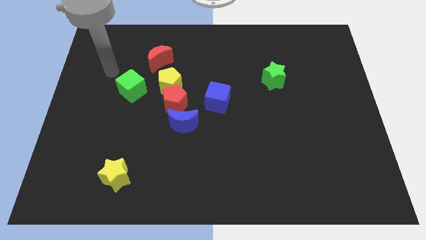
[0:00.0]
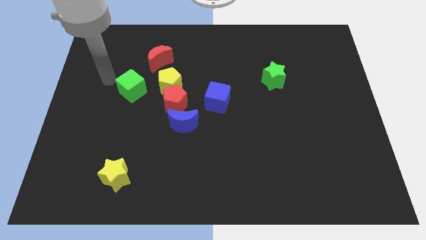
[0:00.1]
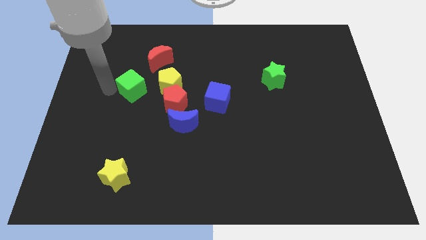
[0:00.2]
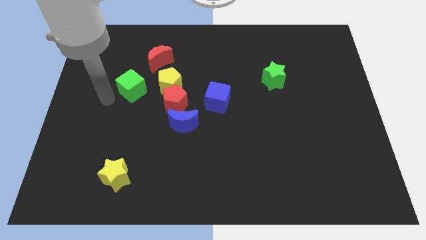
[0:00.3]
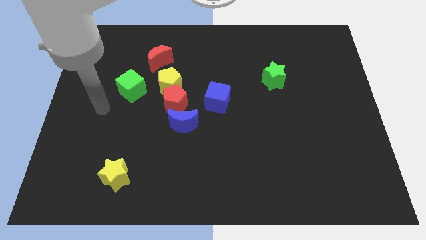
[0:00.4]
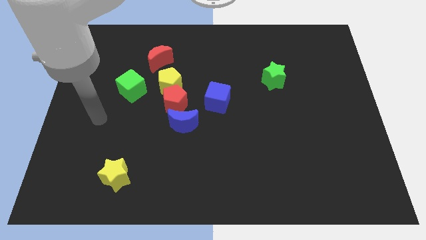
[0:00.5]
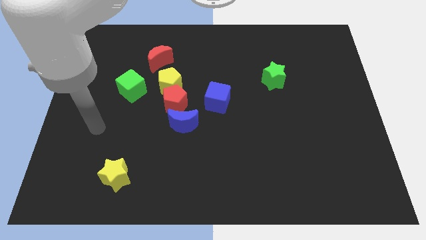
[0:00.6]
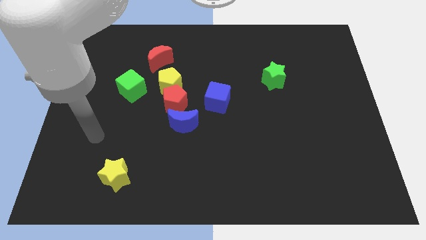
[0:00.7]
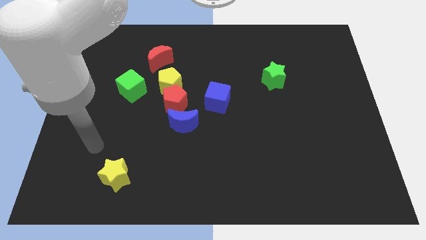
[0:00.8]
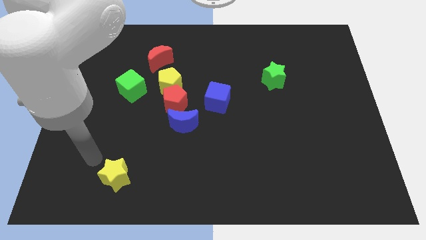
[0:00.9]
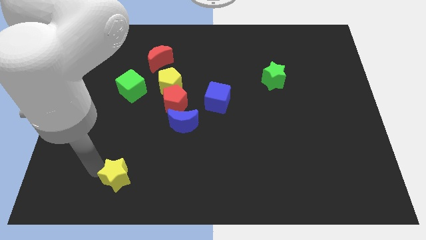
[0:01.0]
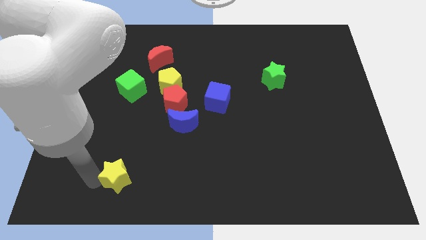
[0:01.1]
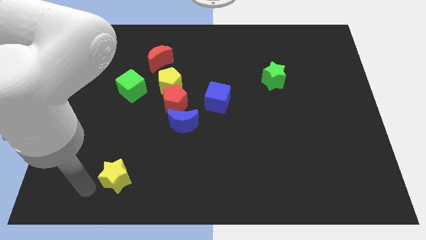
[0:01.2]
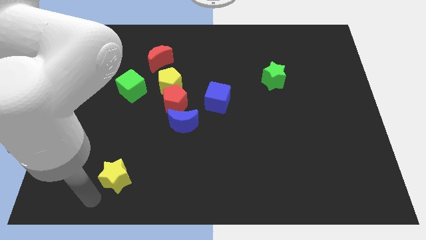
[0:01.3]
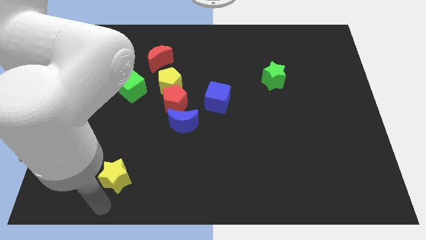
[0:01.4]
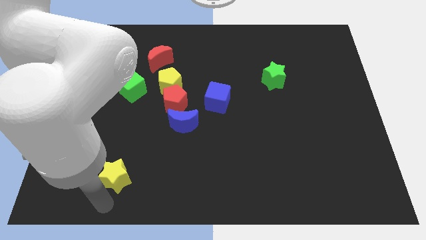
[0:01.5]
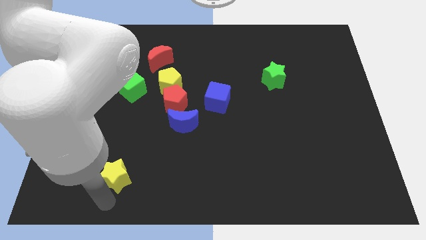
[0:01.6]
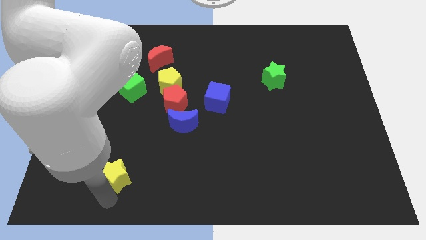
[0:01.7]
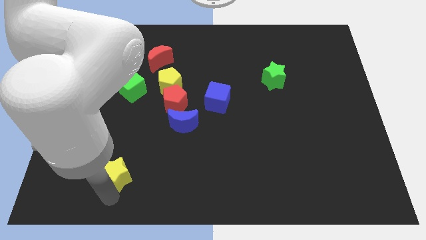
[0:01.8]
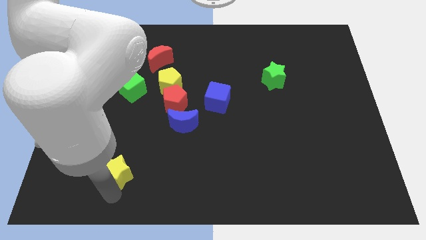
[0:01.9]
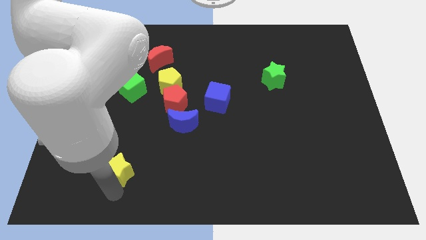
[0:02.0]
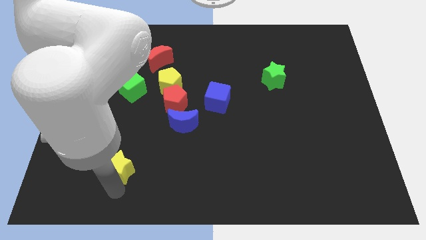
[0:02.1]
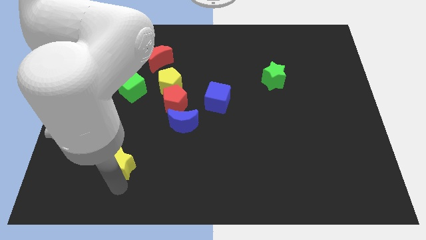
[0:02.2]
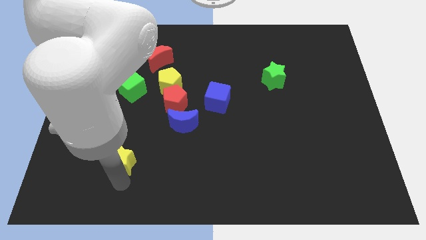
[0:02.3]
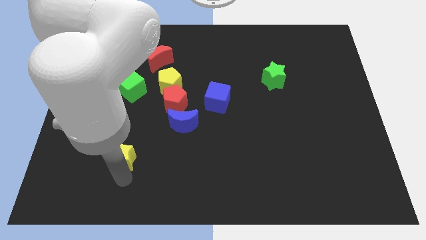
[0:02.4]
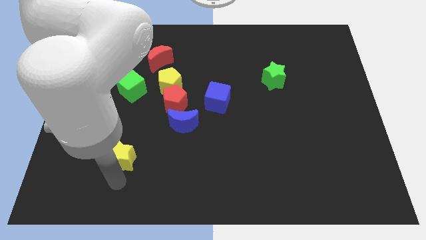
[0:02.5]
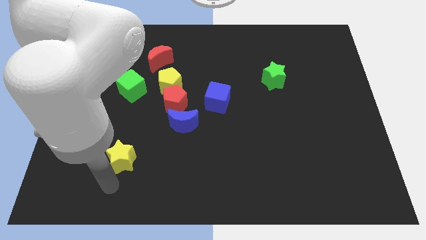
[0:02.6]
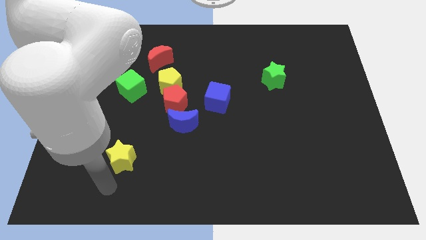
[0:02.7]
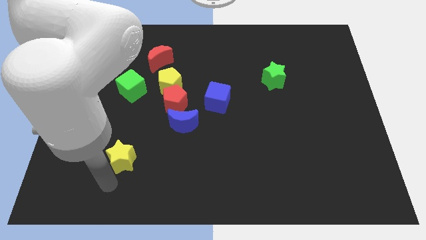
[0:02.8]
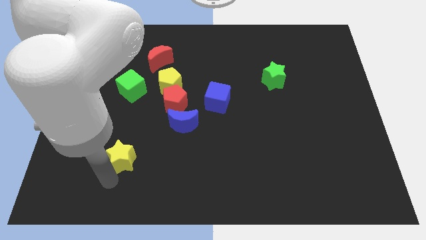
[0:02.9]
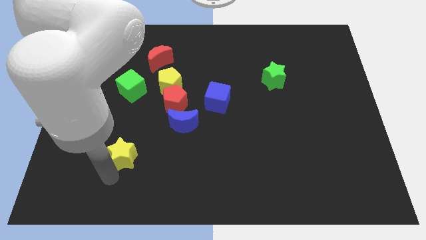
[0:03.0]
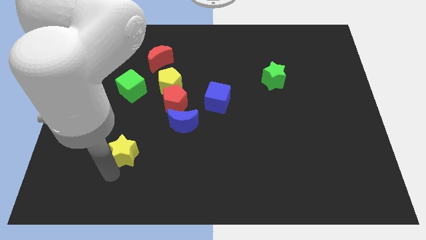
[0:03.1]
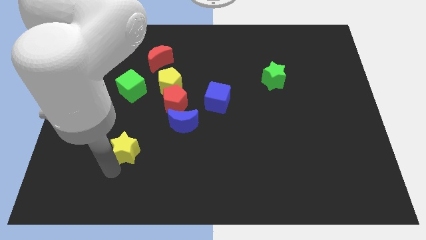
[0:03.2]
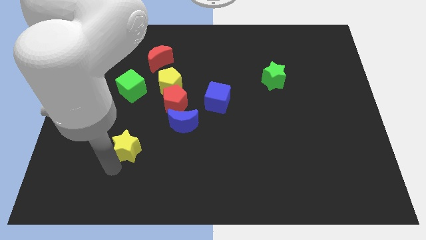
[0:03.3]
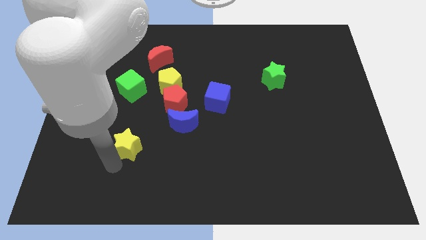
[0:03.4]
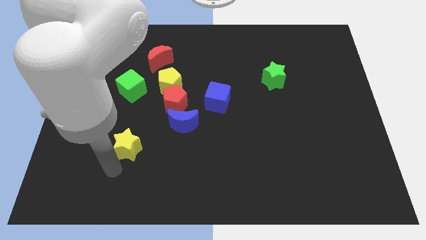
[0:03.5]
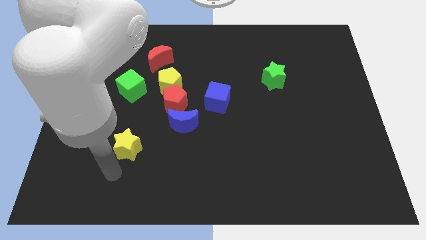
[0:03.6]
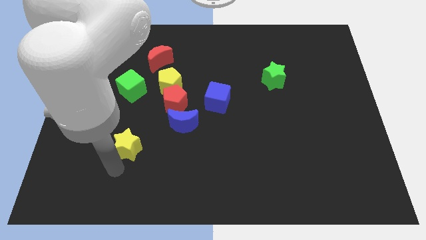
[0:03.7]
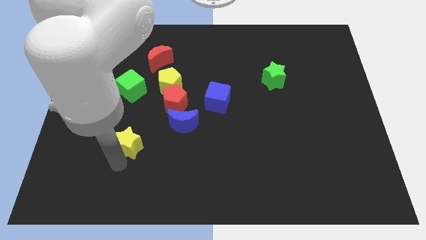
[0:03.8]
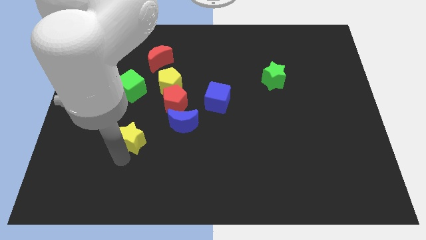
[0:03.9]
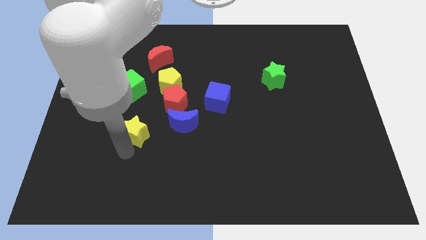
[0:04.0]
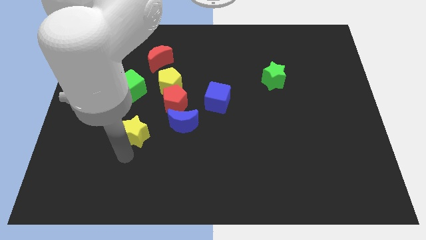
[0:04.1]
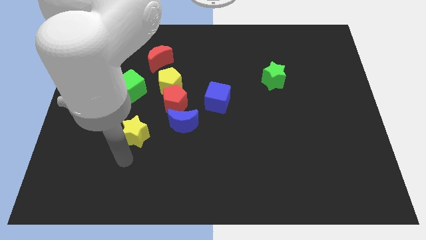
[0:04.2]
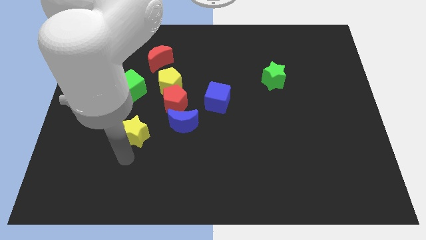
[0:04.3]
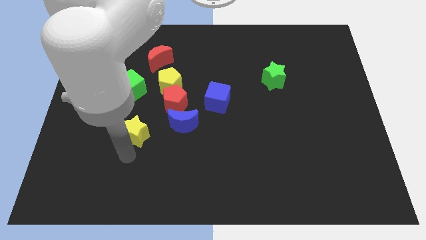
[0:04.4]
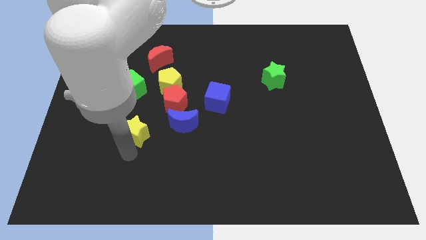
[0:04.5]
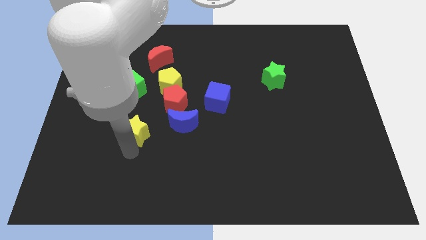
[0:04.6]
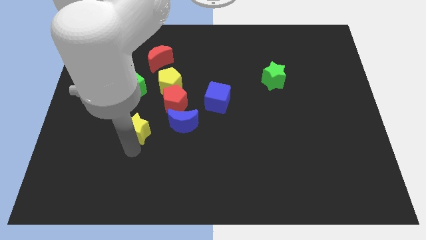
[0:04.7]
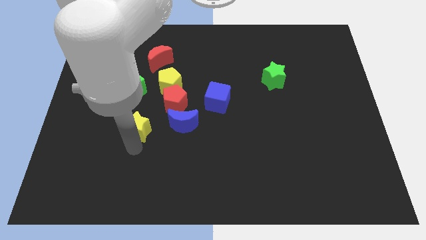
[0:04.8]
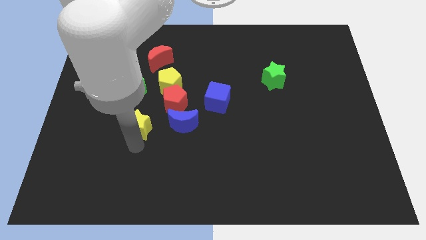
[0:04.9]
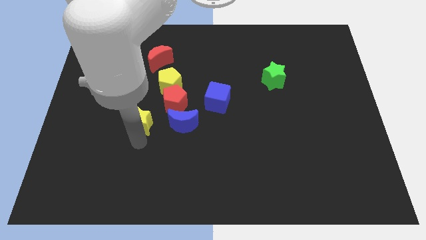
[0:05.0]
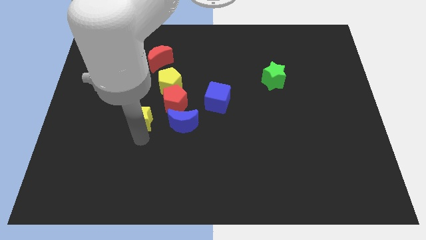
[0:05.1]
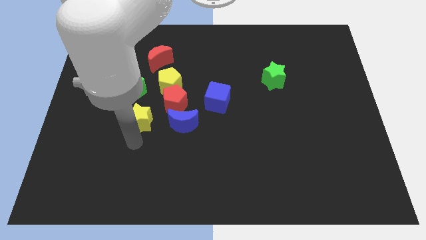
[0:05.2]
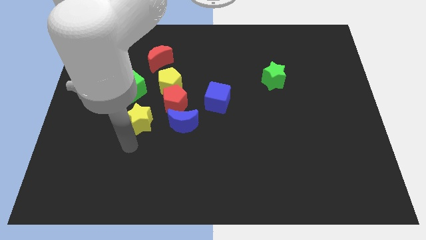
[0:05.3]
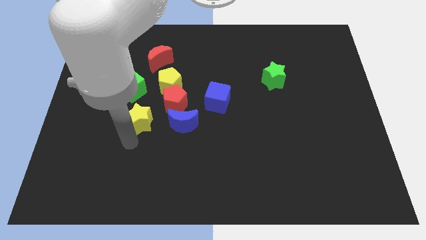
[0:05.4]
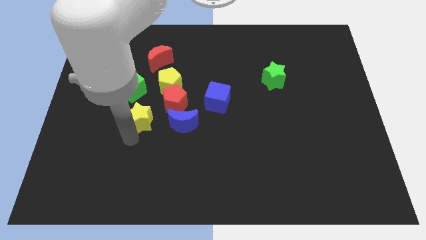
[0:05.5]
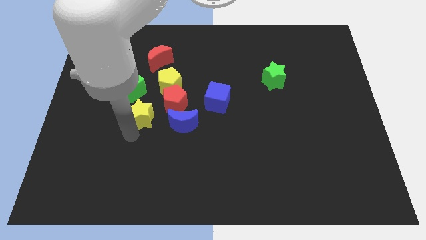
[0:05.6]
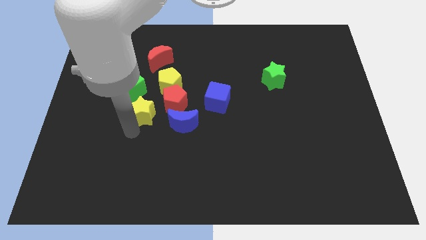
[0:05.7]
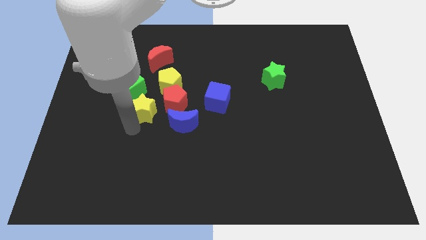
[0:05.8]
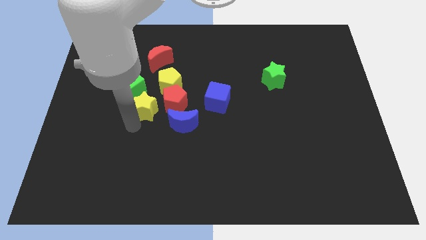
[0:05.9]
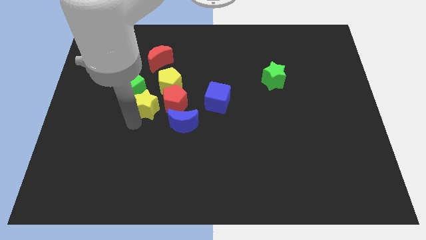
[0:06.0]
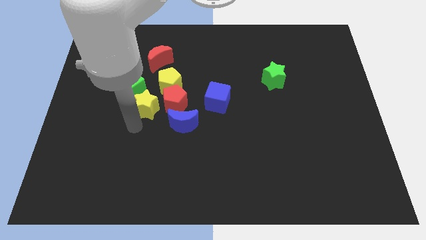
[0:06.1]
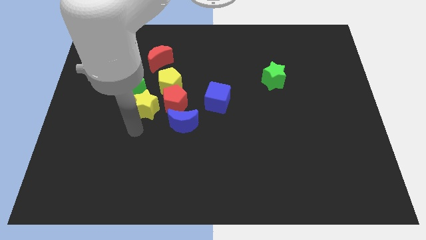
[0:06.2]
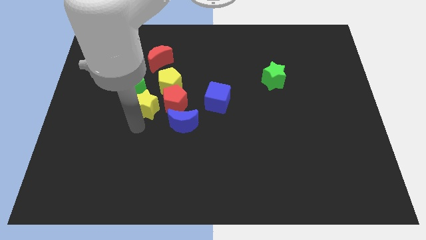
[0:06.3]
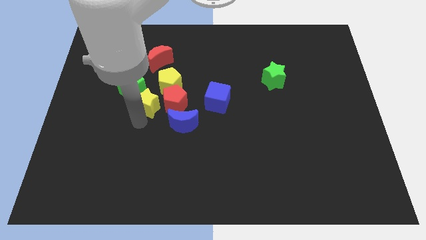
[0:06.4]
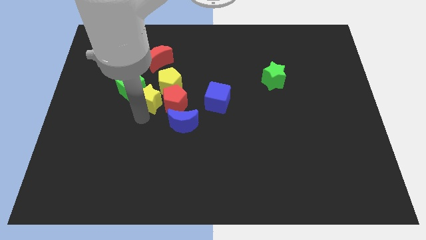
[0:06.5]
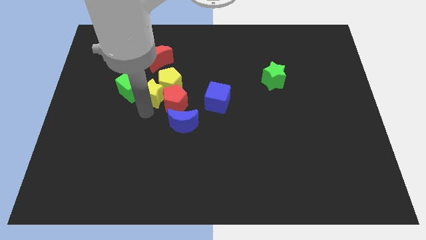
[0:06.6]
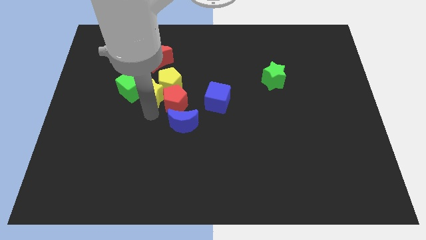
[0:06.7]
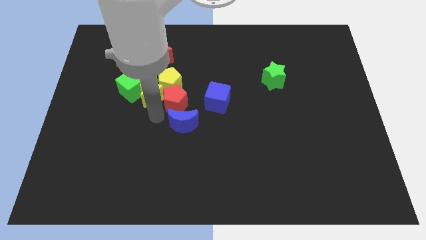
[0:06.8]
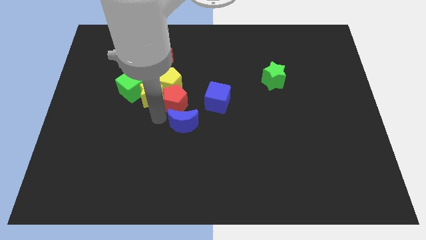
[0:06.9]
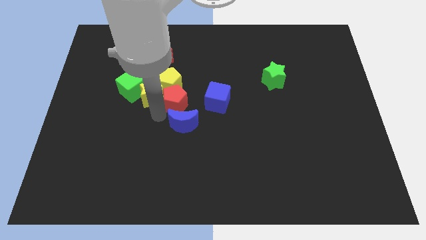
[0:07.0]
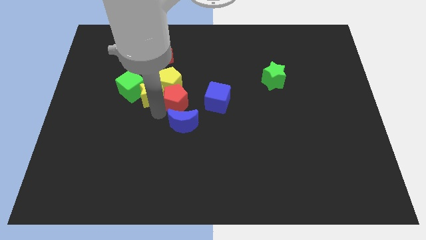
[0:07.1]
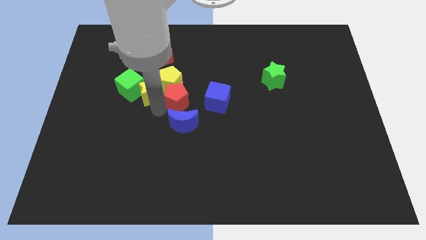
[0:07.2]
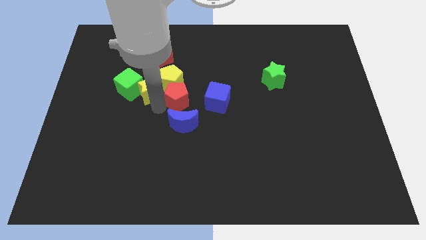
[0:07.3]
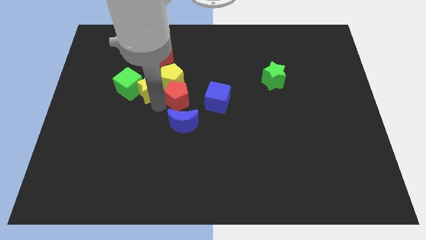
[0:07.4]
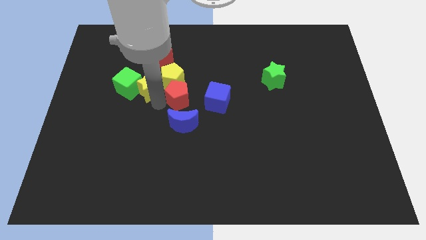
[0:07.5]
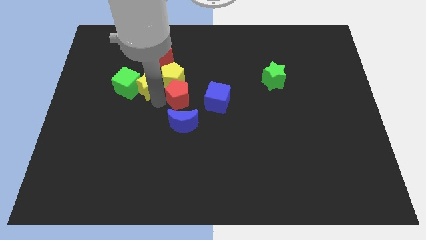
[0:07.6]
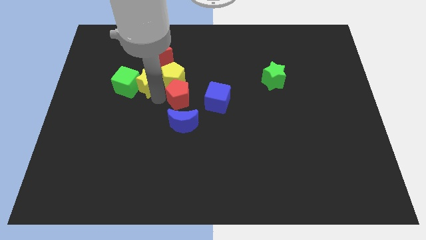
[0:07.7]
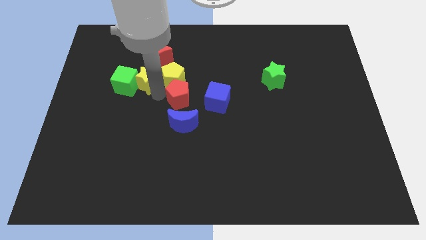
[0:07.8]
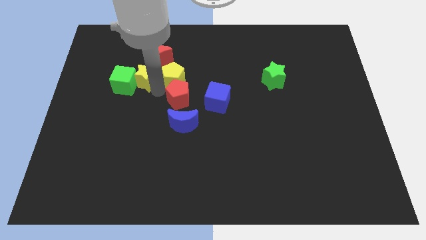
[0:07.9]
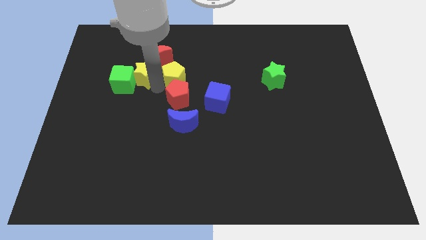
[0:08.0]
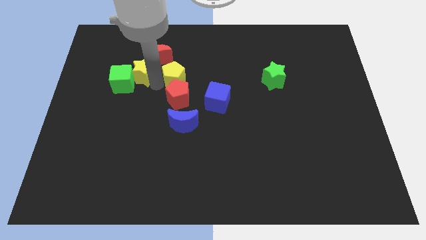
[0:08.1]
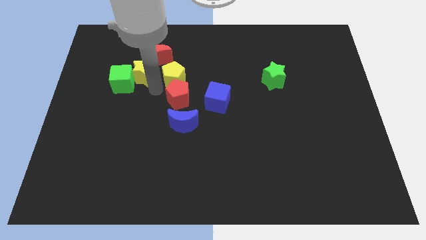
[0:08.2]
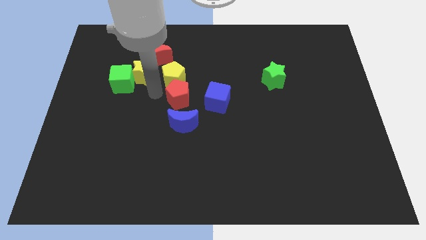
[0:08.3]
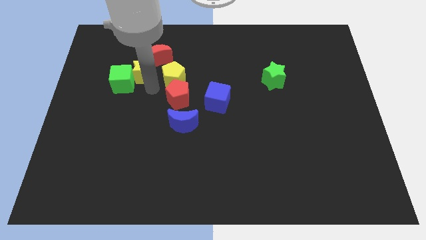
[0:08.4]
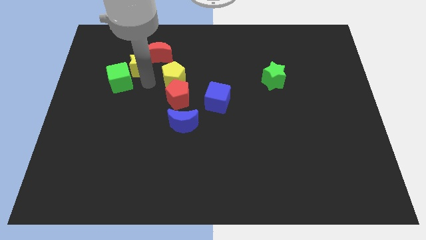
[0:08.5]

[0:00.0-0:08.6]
slide the yellow star above the green cube
